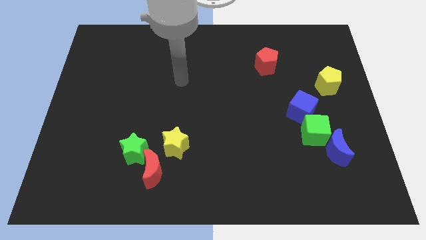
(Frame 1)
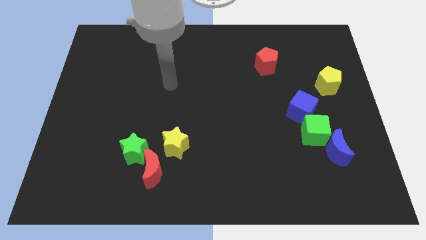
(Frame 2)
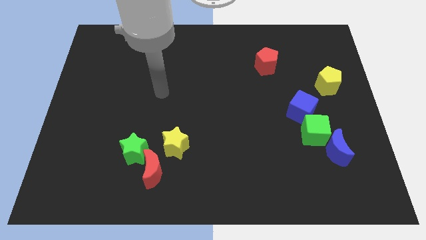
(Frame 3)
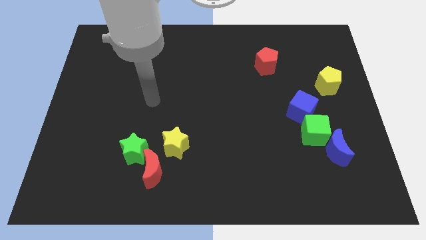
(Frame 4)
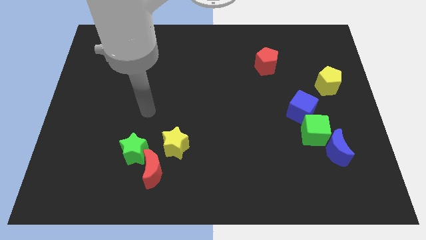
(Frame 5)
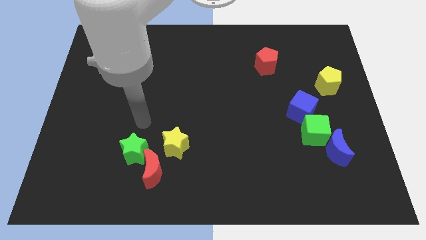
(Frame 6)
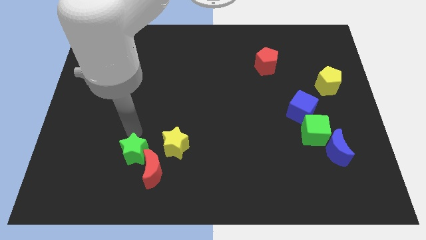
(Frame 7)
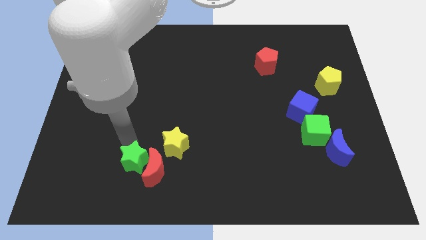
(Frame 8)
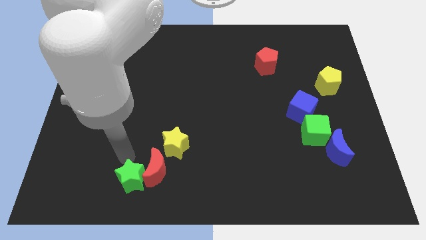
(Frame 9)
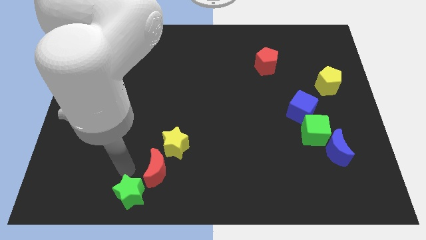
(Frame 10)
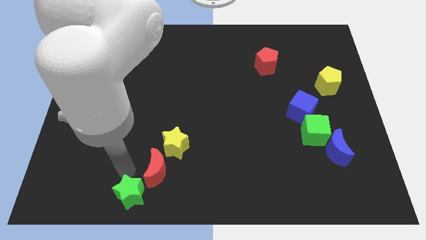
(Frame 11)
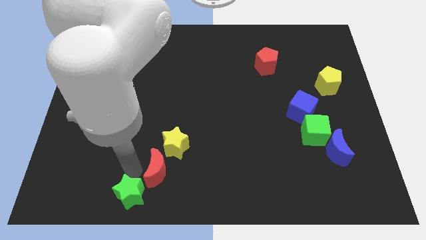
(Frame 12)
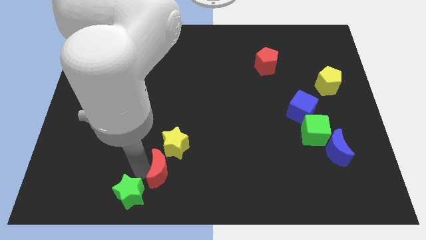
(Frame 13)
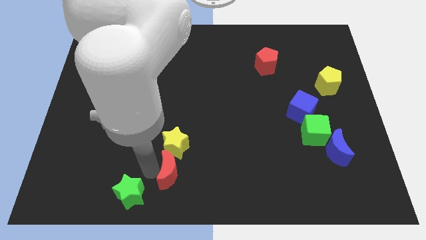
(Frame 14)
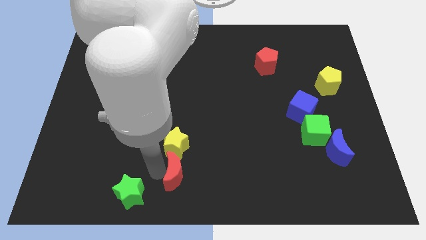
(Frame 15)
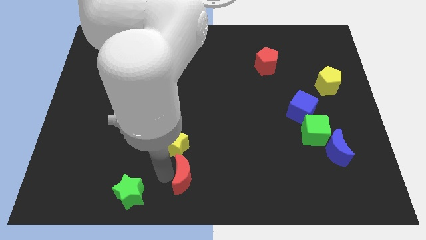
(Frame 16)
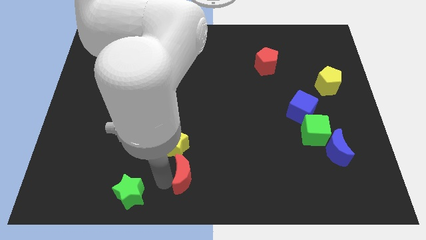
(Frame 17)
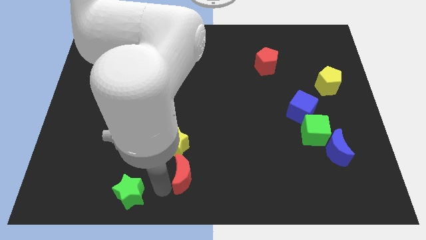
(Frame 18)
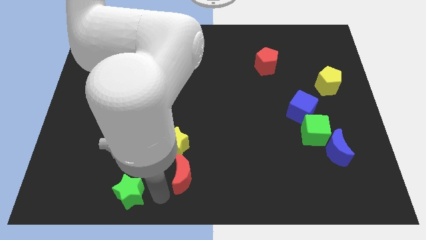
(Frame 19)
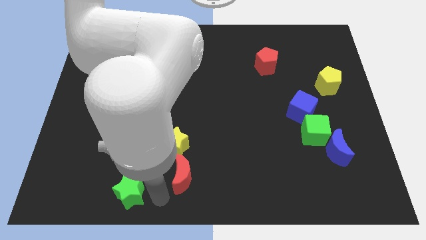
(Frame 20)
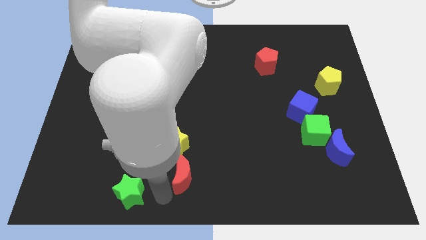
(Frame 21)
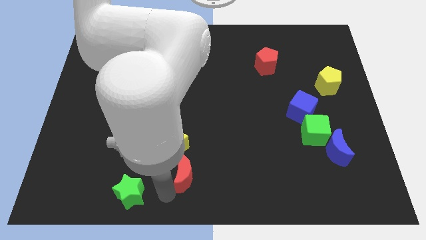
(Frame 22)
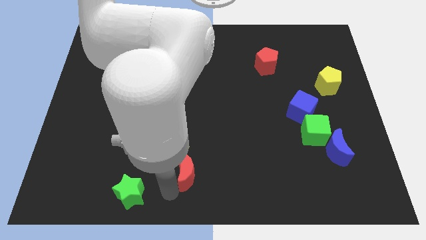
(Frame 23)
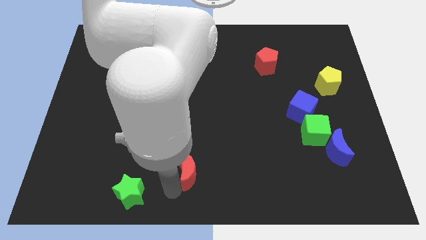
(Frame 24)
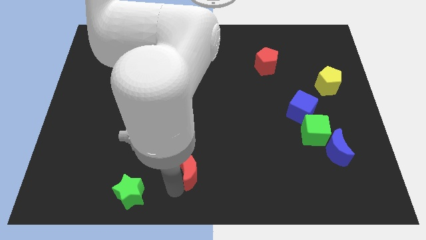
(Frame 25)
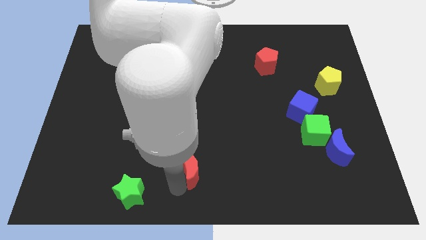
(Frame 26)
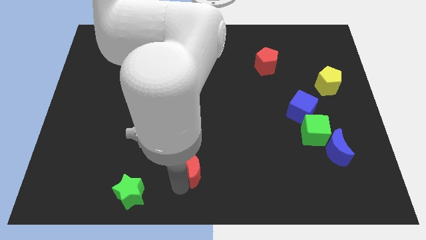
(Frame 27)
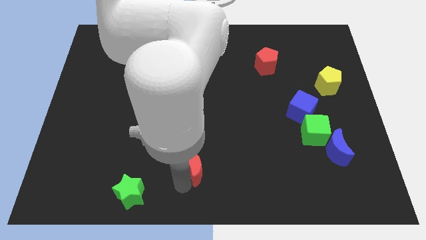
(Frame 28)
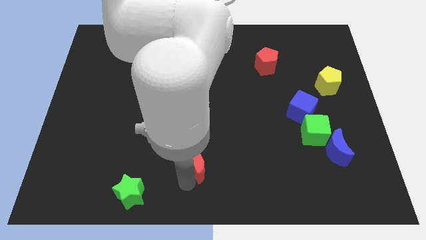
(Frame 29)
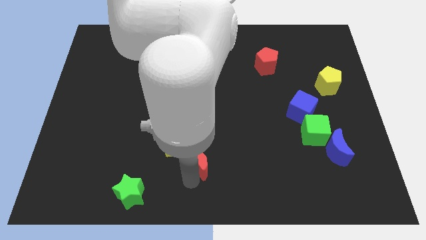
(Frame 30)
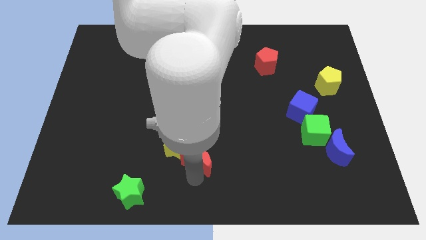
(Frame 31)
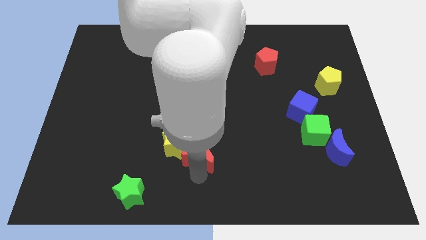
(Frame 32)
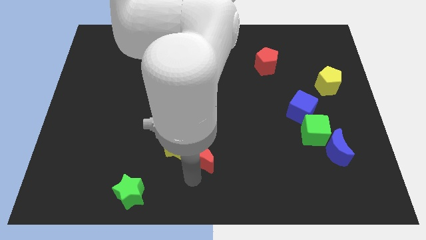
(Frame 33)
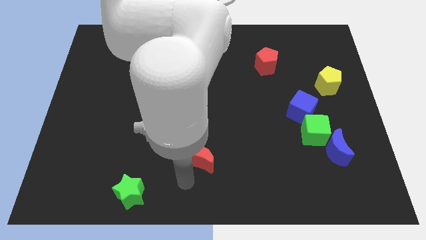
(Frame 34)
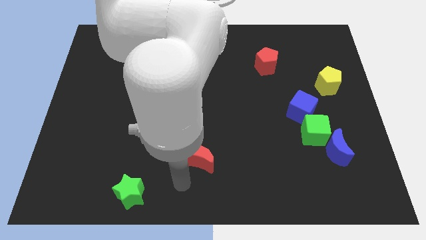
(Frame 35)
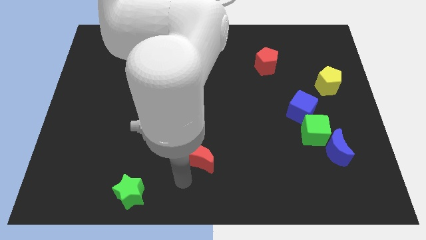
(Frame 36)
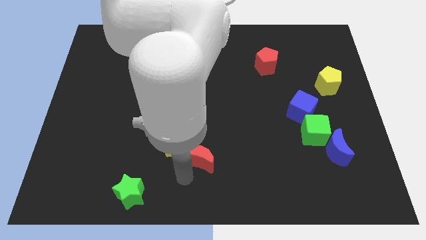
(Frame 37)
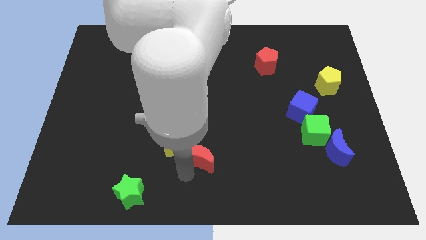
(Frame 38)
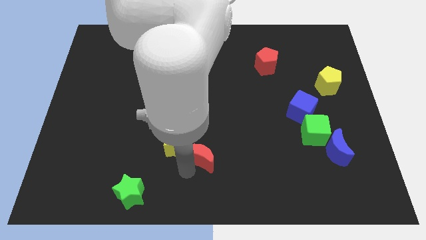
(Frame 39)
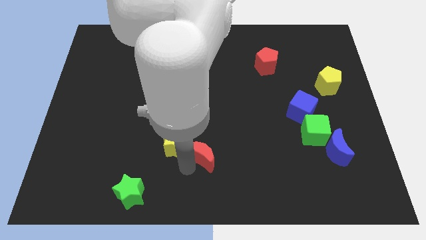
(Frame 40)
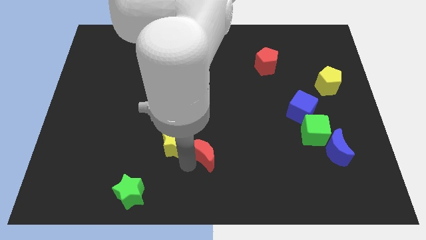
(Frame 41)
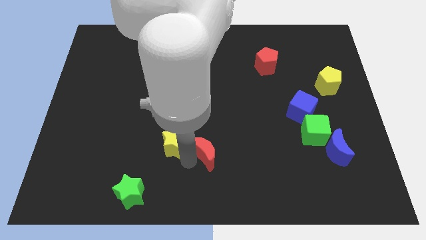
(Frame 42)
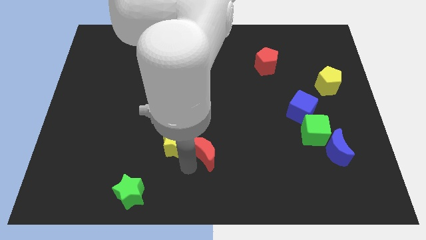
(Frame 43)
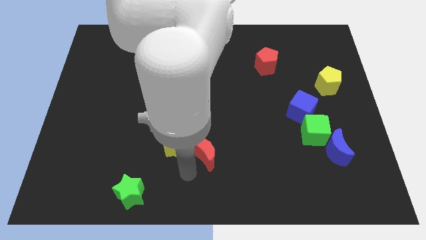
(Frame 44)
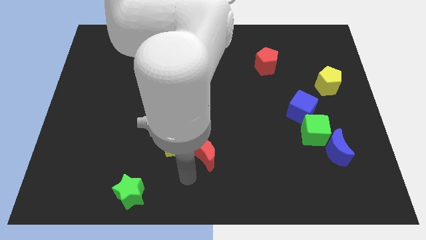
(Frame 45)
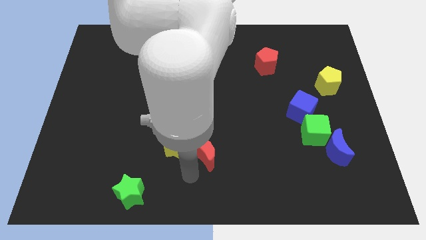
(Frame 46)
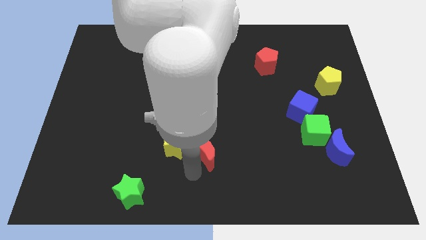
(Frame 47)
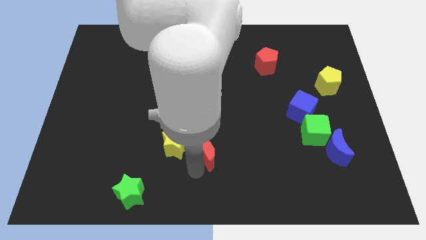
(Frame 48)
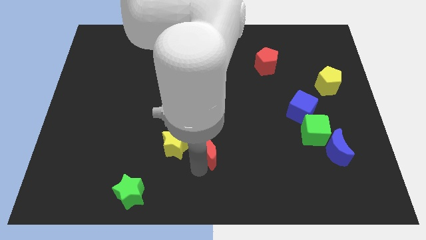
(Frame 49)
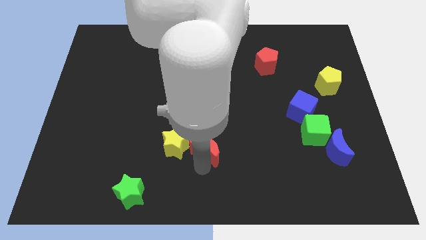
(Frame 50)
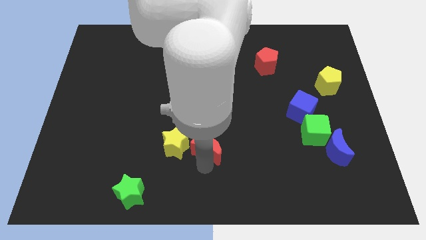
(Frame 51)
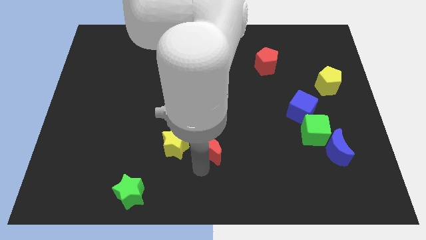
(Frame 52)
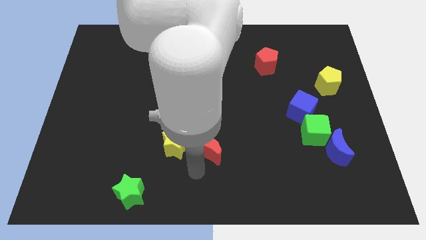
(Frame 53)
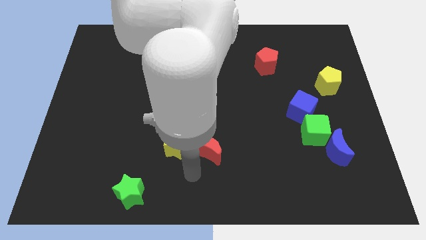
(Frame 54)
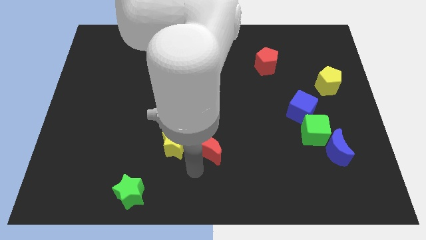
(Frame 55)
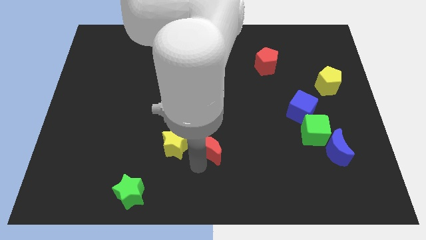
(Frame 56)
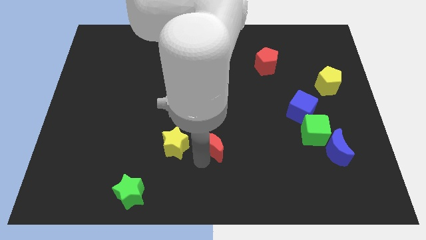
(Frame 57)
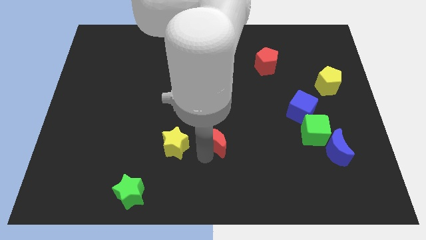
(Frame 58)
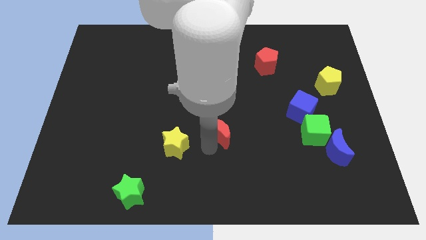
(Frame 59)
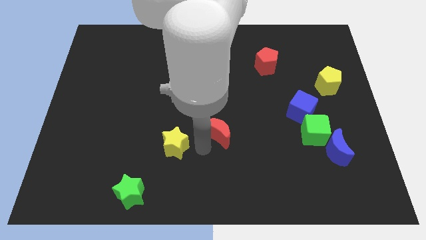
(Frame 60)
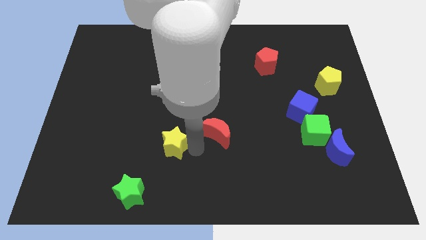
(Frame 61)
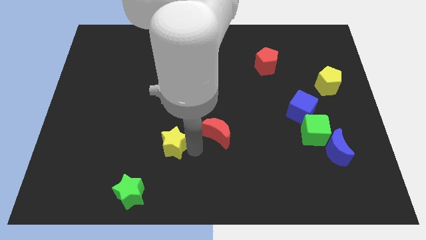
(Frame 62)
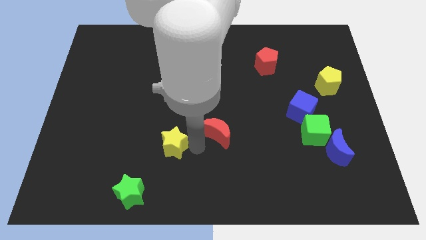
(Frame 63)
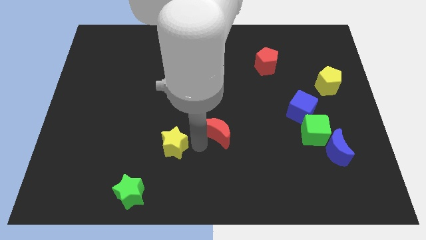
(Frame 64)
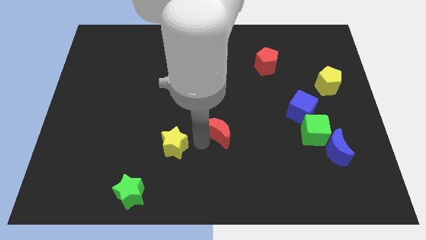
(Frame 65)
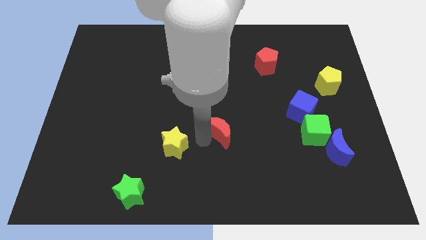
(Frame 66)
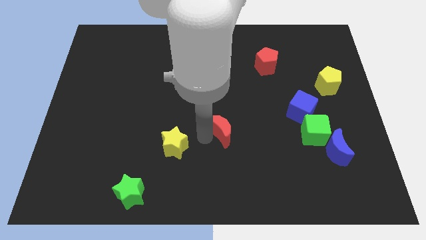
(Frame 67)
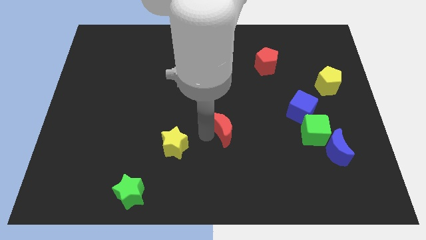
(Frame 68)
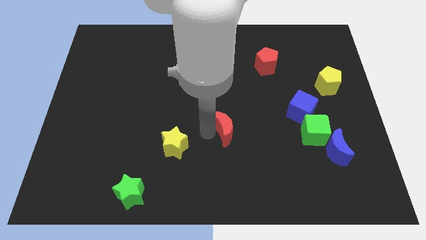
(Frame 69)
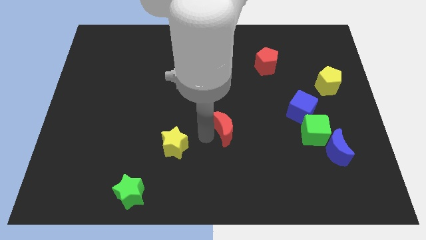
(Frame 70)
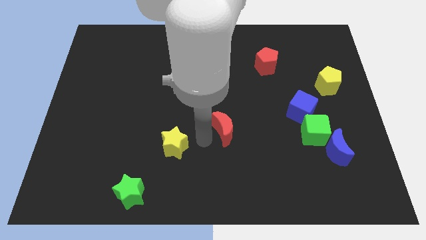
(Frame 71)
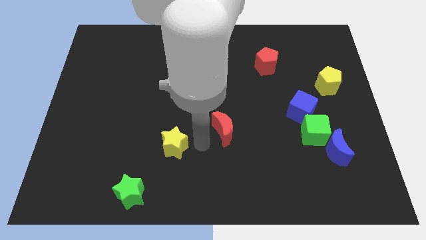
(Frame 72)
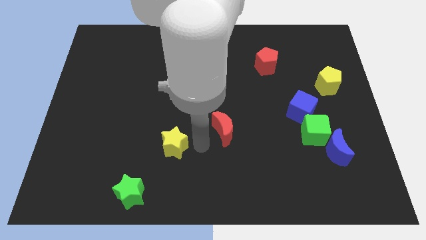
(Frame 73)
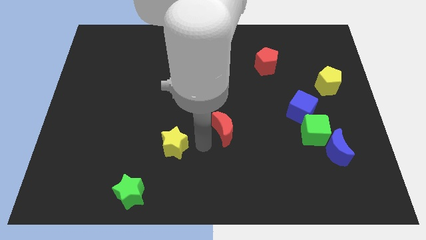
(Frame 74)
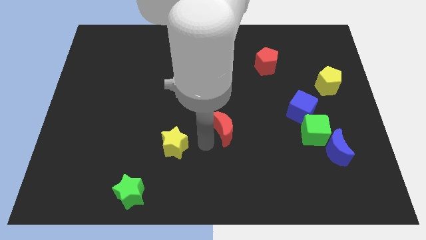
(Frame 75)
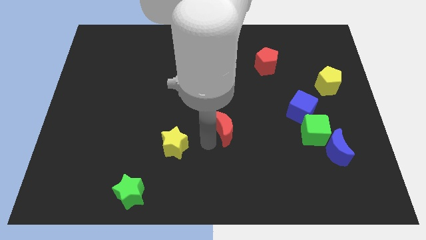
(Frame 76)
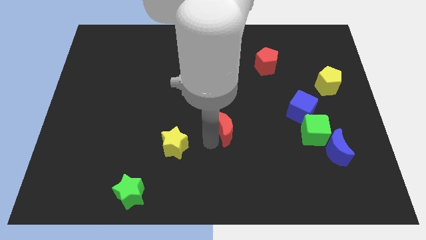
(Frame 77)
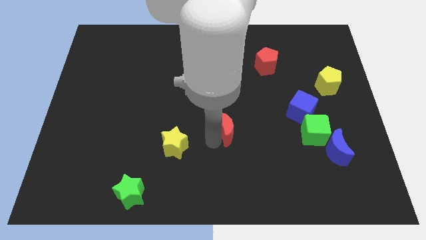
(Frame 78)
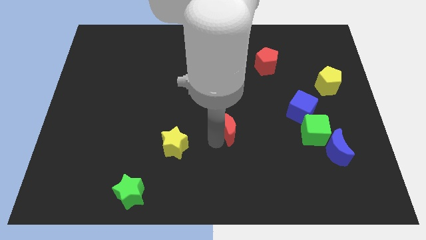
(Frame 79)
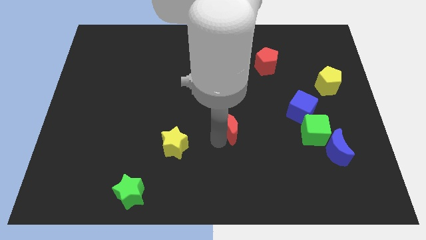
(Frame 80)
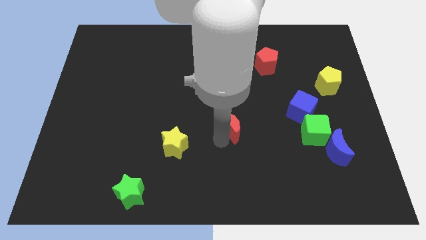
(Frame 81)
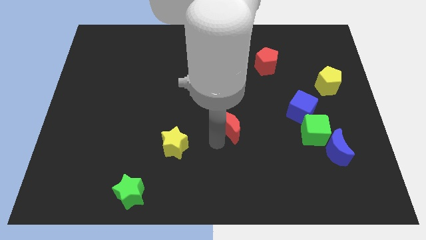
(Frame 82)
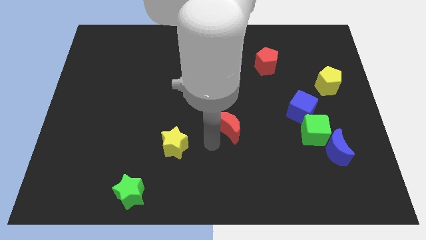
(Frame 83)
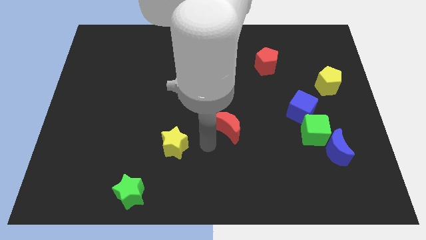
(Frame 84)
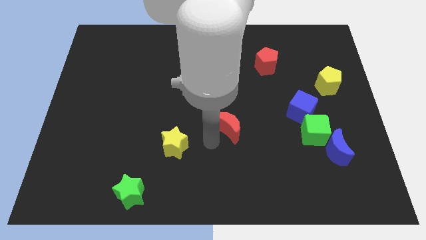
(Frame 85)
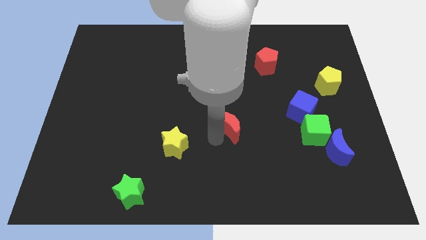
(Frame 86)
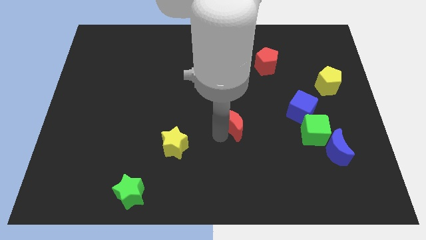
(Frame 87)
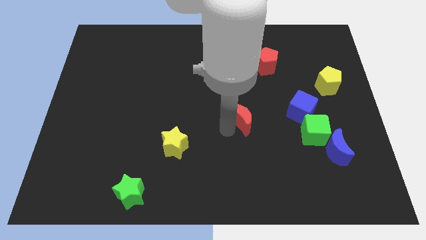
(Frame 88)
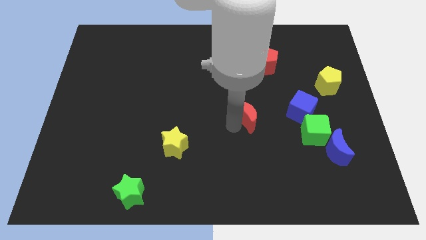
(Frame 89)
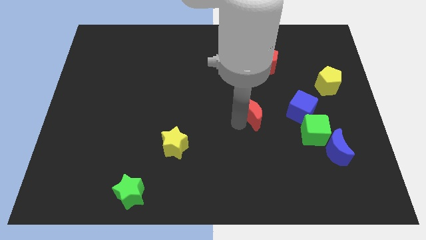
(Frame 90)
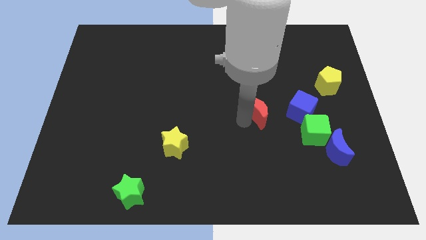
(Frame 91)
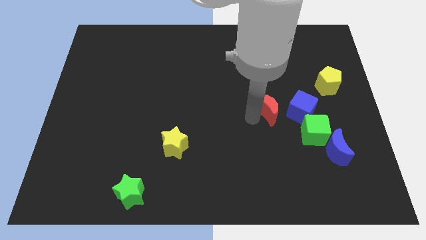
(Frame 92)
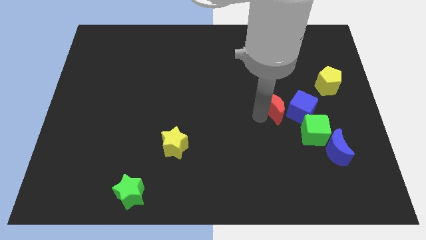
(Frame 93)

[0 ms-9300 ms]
slide the red moon to the top left of the blue cube
